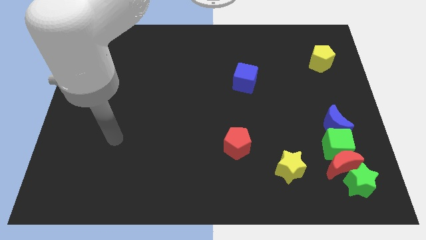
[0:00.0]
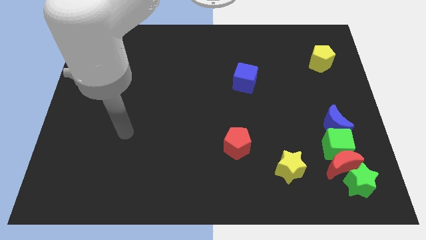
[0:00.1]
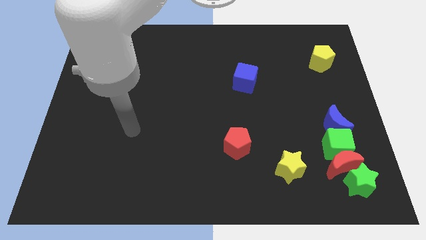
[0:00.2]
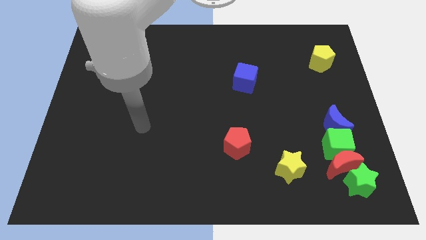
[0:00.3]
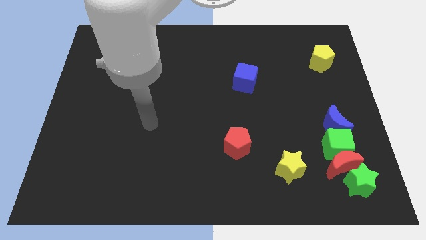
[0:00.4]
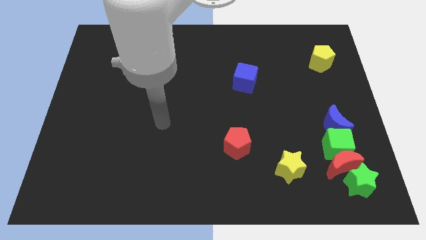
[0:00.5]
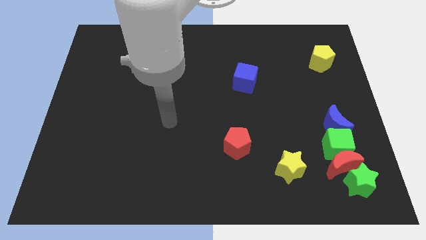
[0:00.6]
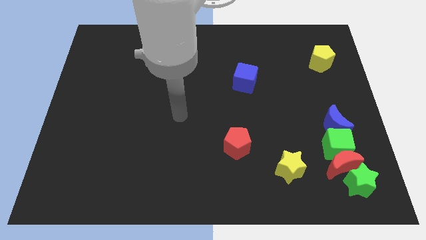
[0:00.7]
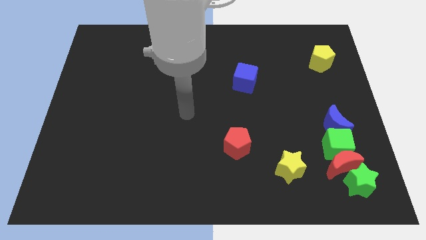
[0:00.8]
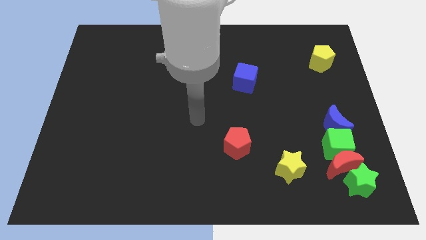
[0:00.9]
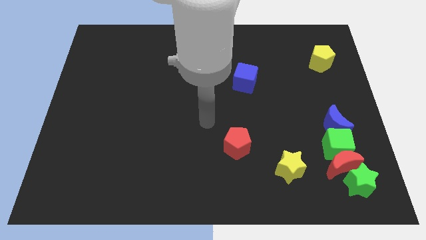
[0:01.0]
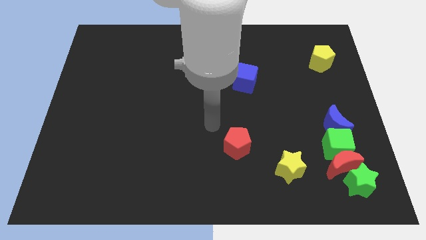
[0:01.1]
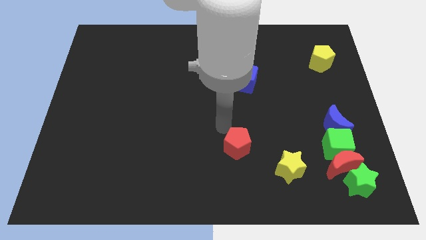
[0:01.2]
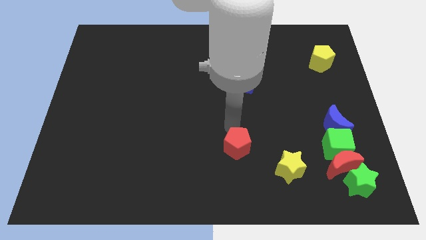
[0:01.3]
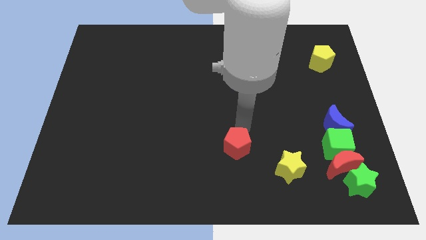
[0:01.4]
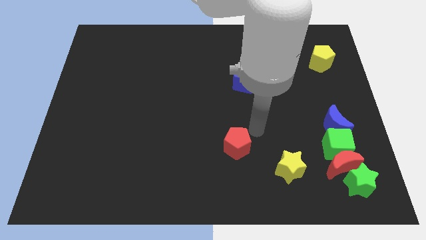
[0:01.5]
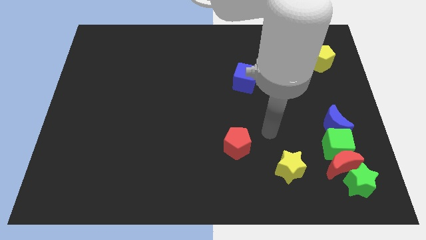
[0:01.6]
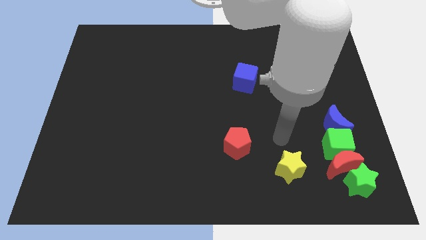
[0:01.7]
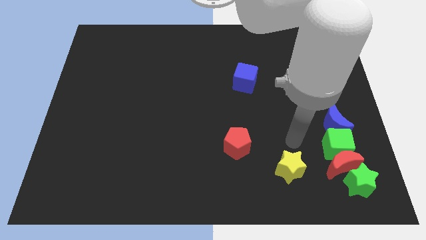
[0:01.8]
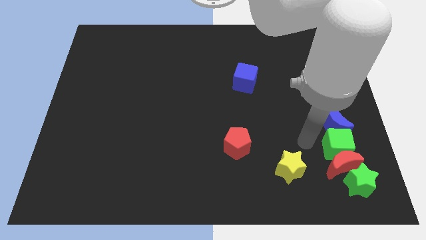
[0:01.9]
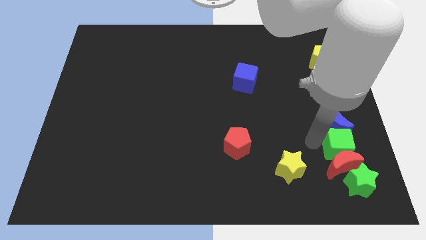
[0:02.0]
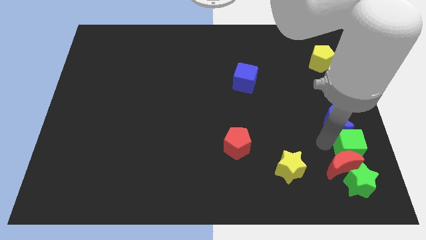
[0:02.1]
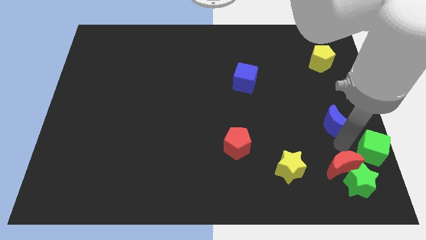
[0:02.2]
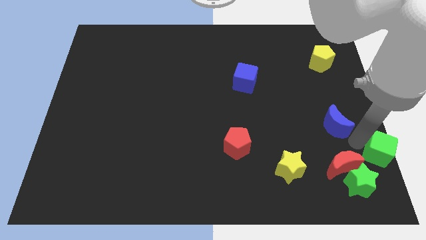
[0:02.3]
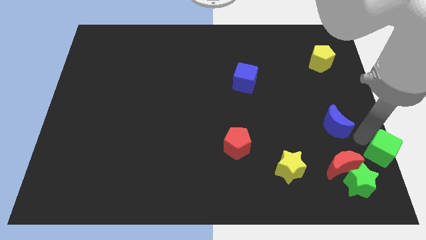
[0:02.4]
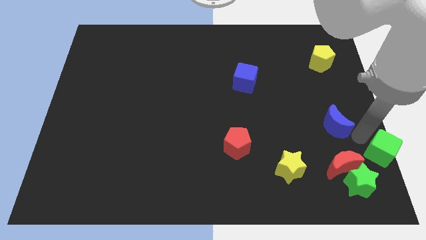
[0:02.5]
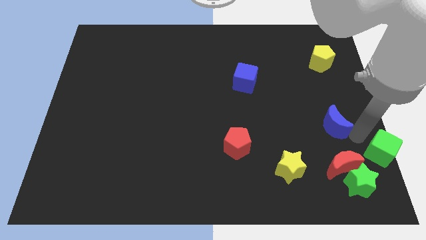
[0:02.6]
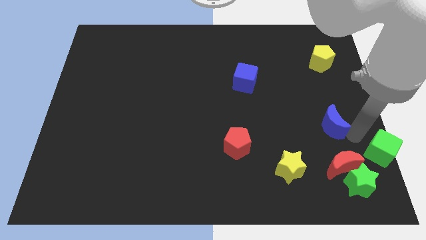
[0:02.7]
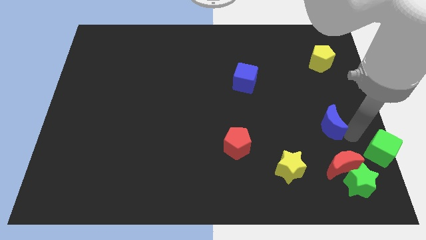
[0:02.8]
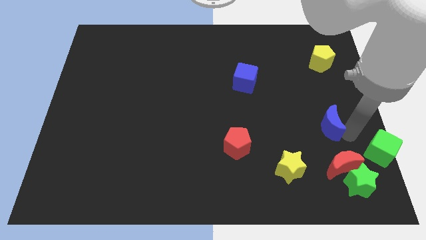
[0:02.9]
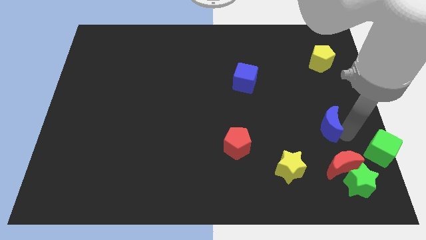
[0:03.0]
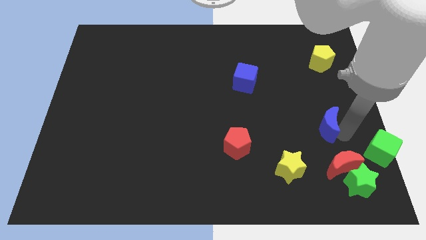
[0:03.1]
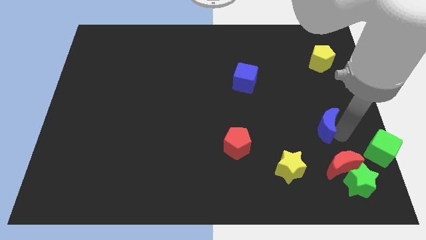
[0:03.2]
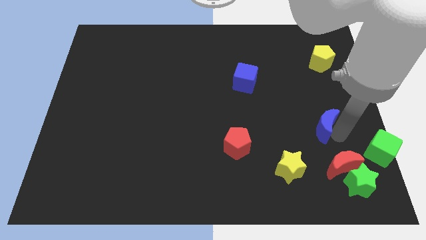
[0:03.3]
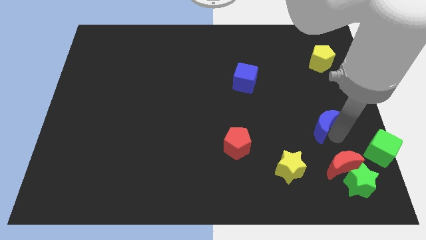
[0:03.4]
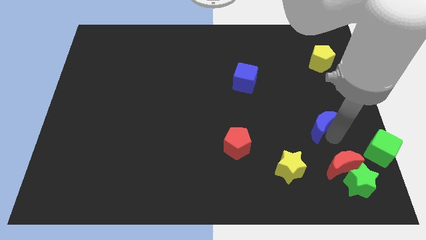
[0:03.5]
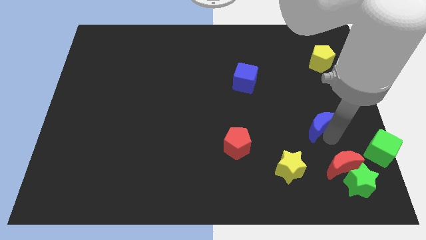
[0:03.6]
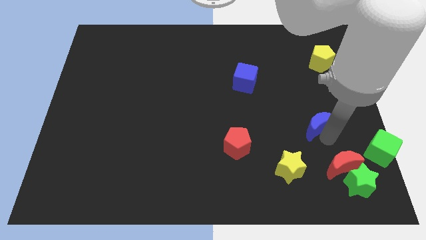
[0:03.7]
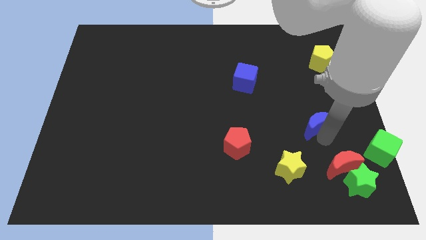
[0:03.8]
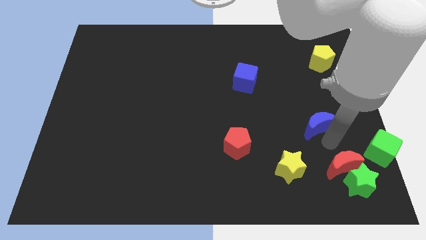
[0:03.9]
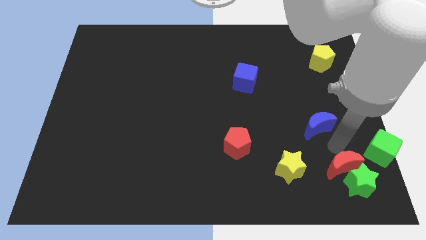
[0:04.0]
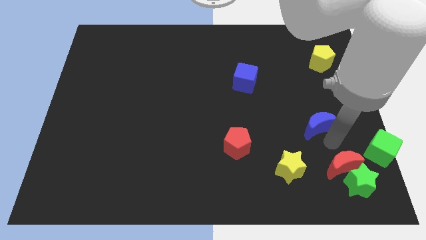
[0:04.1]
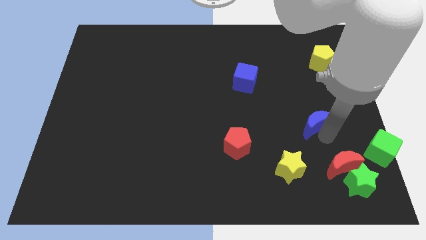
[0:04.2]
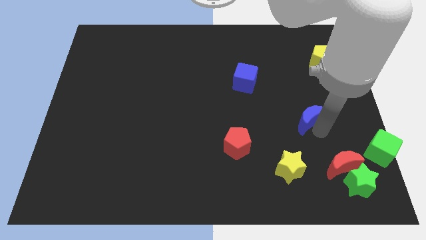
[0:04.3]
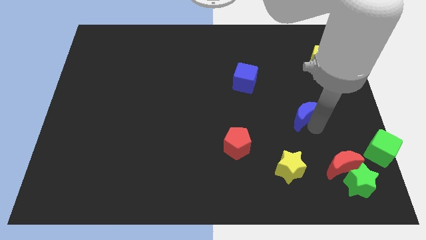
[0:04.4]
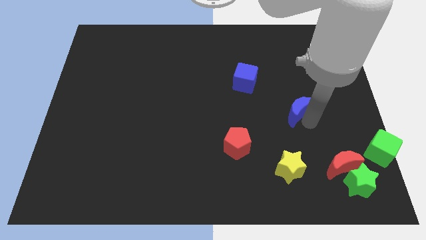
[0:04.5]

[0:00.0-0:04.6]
move the blue moon upwards and left diagonally slightly

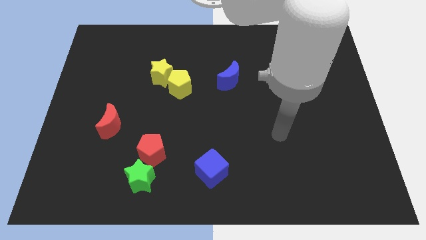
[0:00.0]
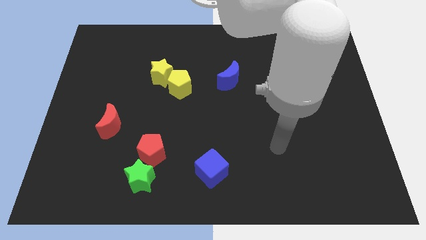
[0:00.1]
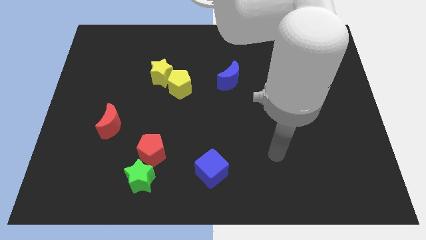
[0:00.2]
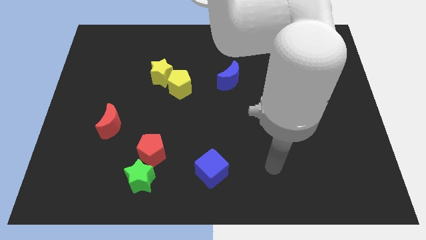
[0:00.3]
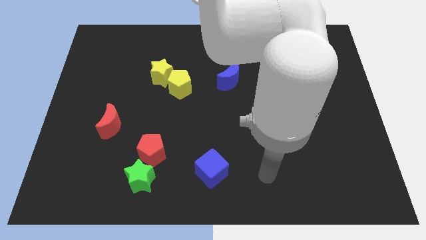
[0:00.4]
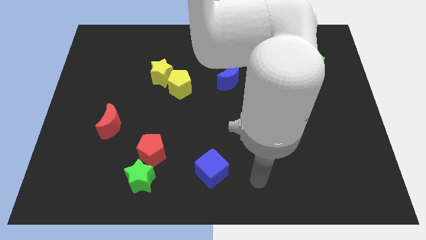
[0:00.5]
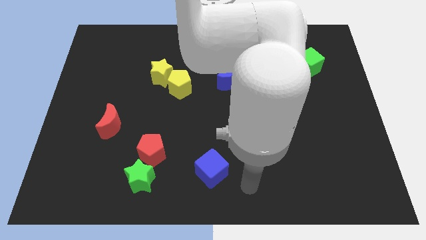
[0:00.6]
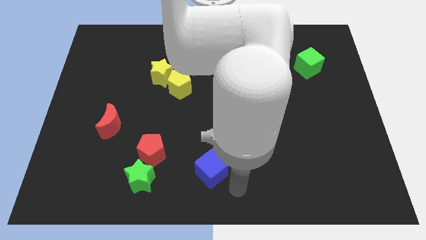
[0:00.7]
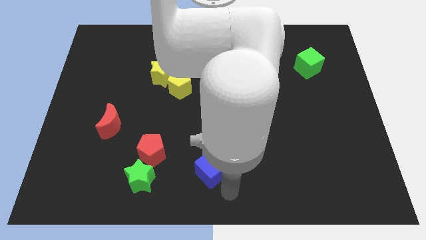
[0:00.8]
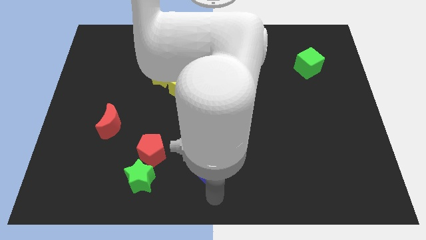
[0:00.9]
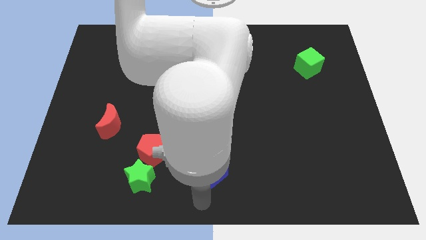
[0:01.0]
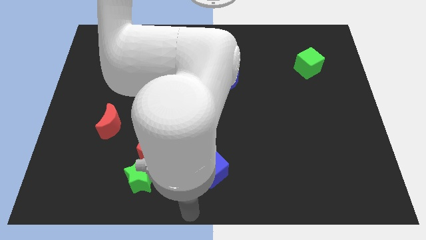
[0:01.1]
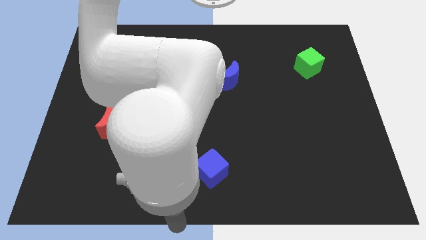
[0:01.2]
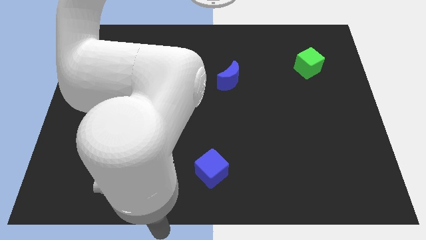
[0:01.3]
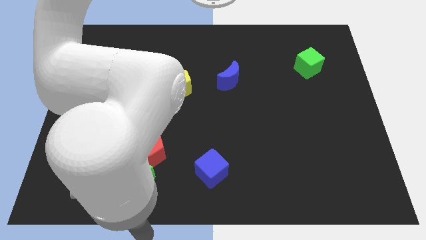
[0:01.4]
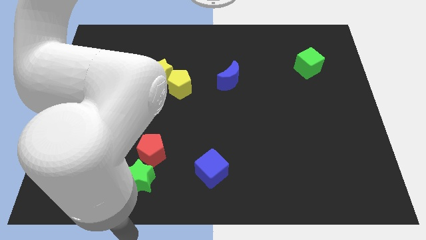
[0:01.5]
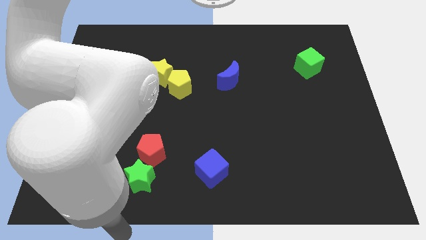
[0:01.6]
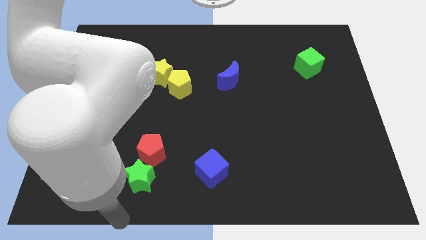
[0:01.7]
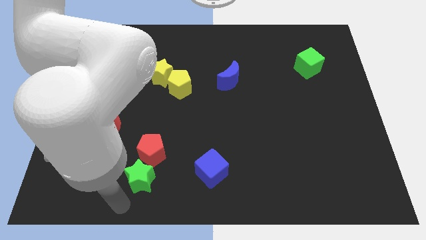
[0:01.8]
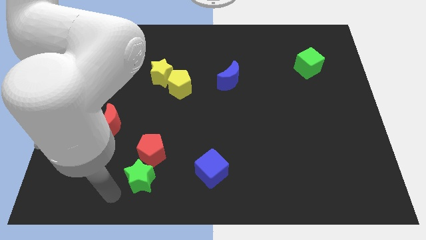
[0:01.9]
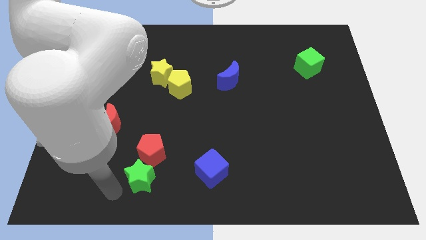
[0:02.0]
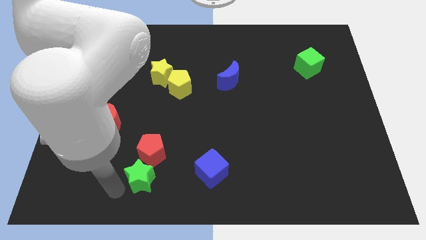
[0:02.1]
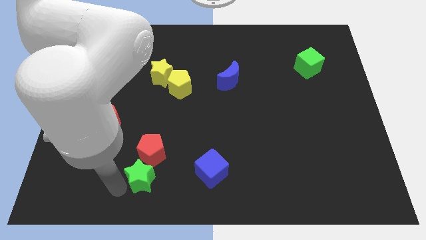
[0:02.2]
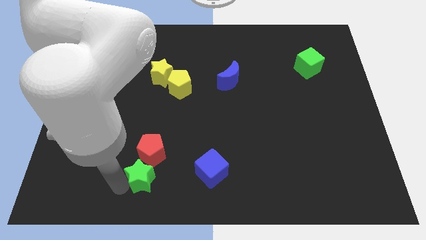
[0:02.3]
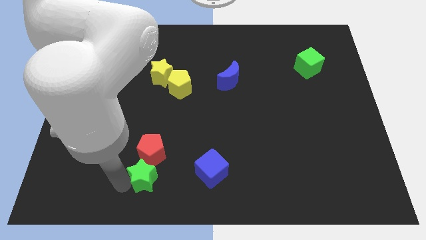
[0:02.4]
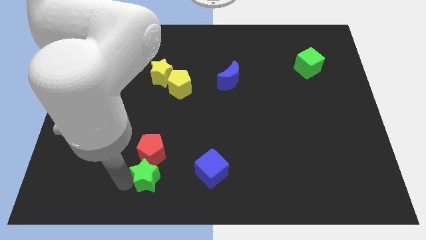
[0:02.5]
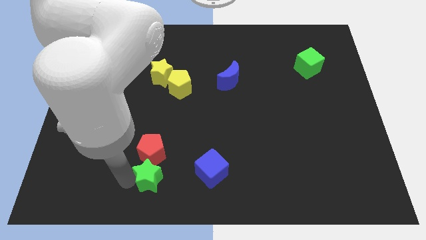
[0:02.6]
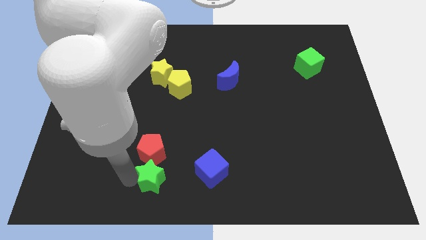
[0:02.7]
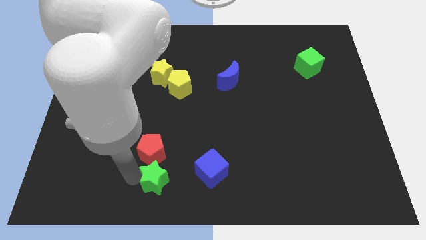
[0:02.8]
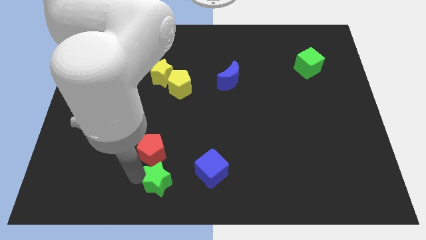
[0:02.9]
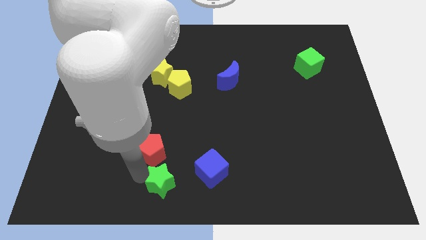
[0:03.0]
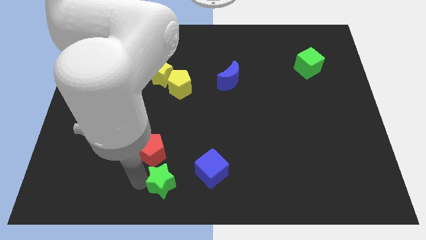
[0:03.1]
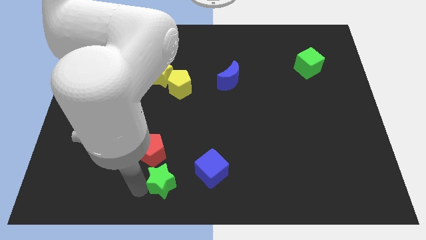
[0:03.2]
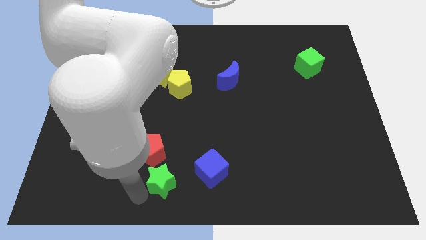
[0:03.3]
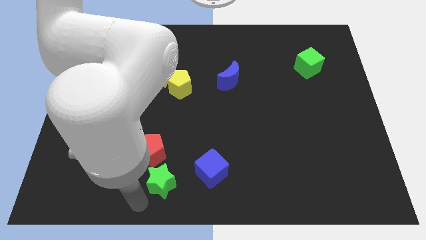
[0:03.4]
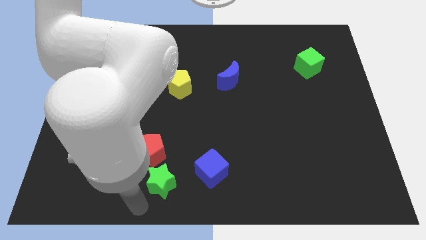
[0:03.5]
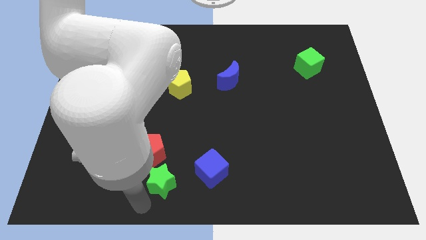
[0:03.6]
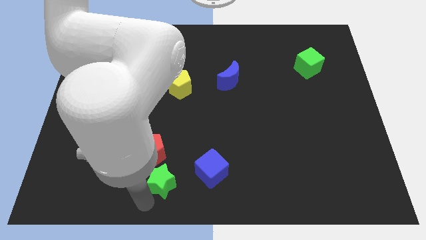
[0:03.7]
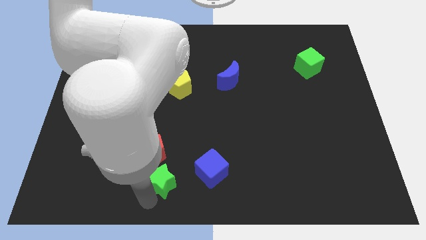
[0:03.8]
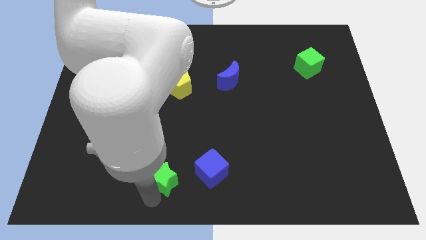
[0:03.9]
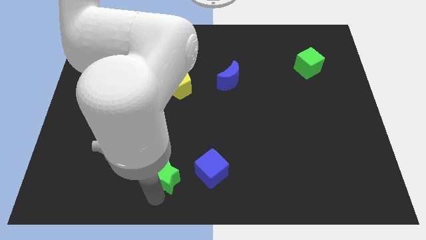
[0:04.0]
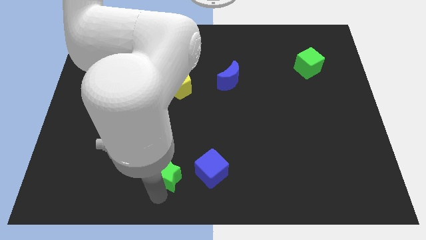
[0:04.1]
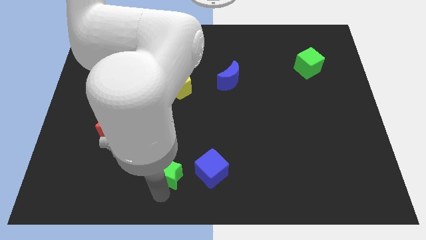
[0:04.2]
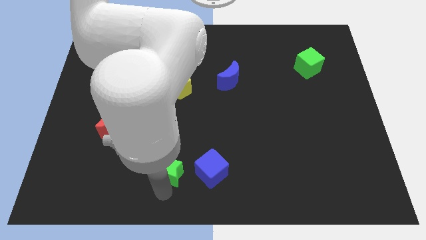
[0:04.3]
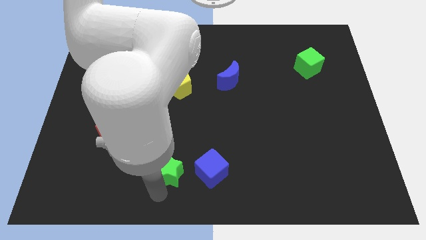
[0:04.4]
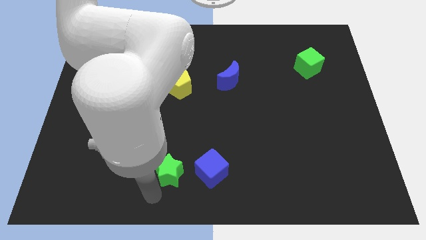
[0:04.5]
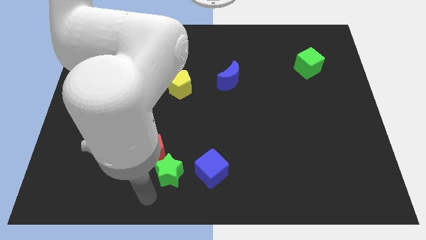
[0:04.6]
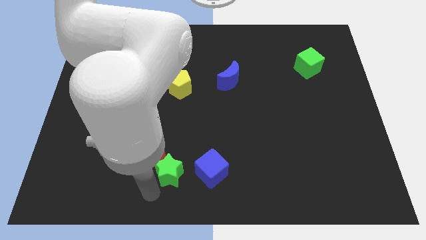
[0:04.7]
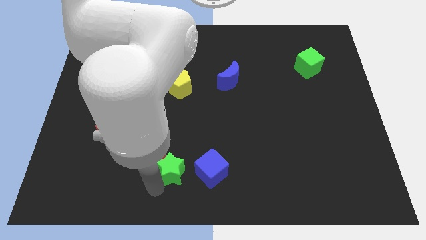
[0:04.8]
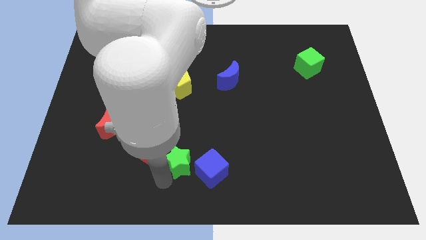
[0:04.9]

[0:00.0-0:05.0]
move the green star diagonally upwards and right a little
